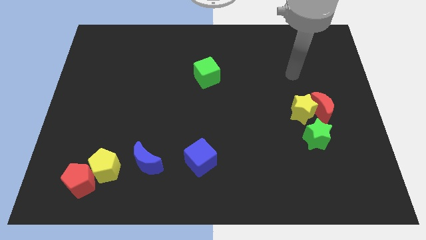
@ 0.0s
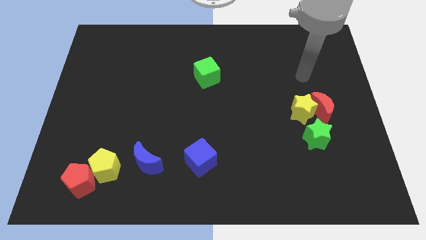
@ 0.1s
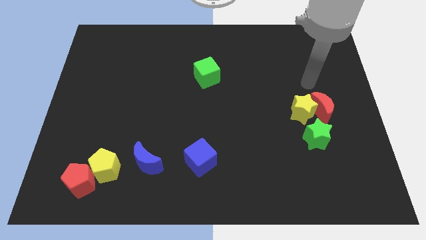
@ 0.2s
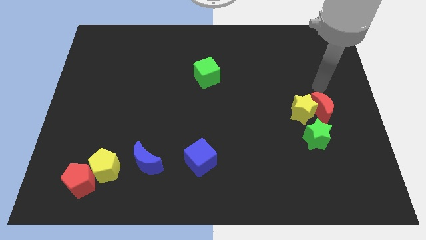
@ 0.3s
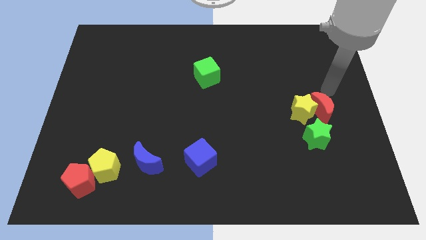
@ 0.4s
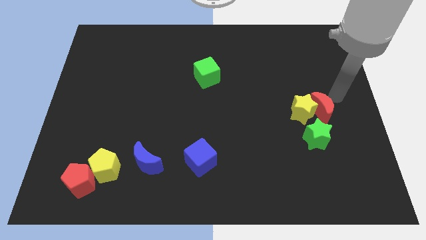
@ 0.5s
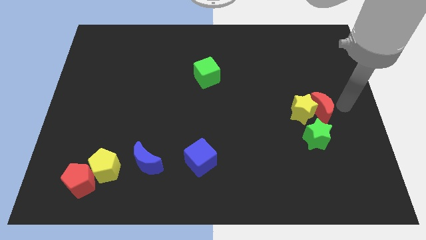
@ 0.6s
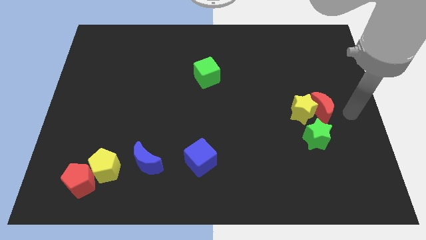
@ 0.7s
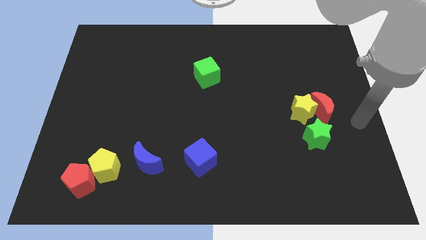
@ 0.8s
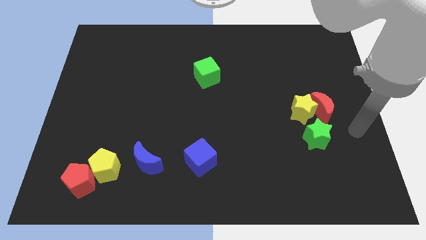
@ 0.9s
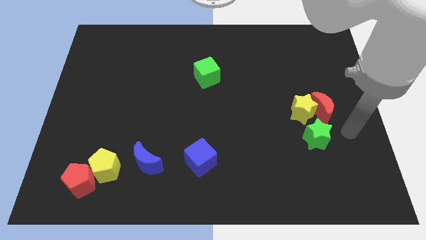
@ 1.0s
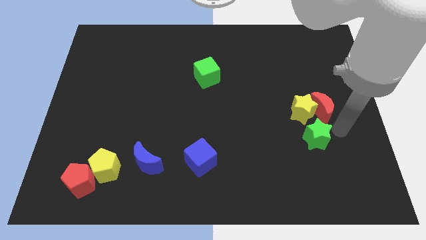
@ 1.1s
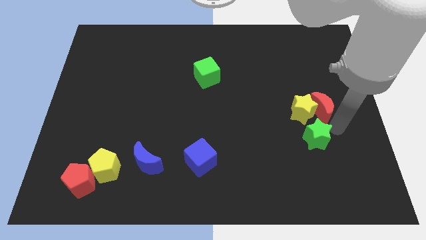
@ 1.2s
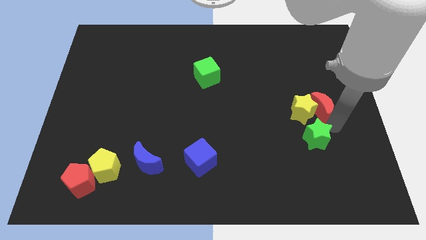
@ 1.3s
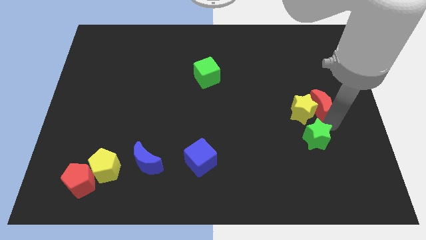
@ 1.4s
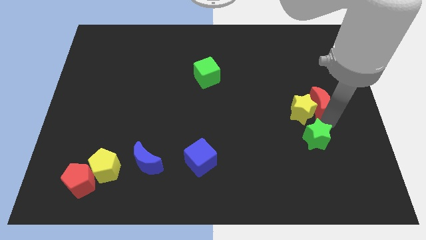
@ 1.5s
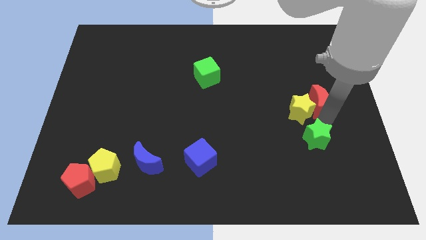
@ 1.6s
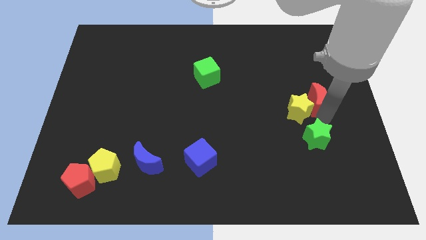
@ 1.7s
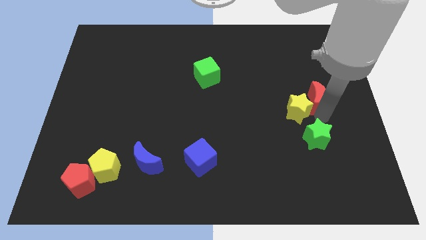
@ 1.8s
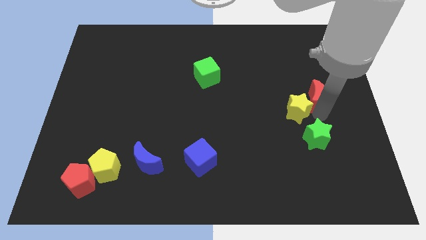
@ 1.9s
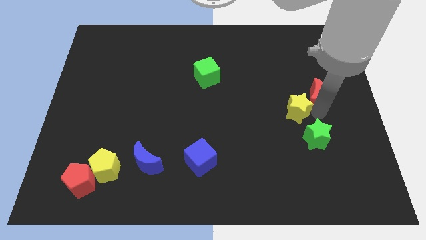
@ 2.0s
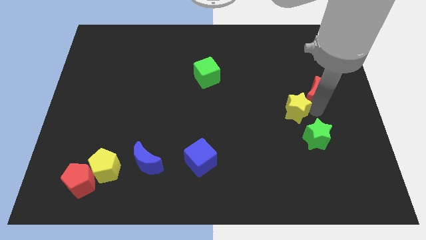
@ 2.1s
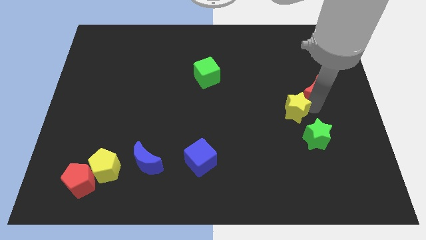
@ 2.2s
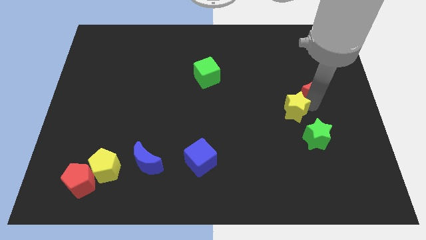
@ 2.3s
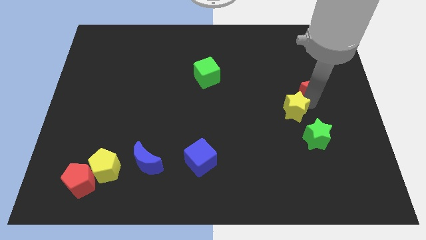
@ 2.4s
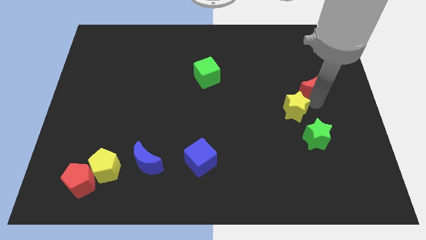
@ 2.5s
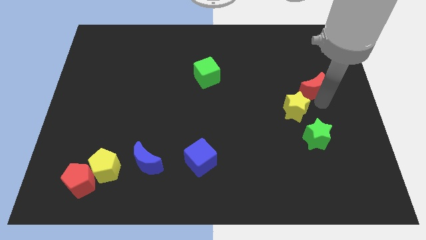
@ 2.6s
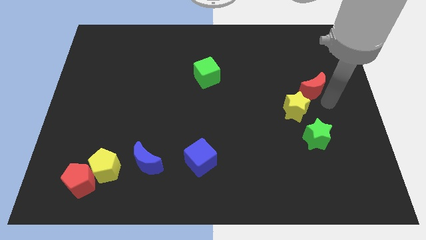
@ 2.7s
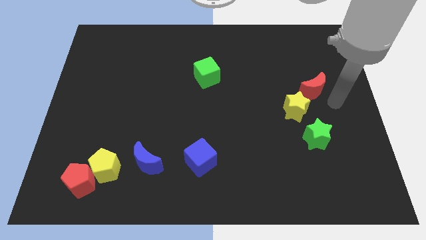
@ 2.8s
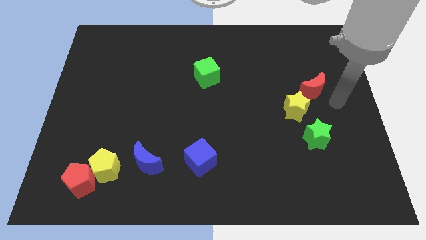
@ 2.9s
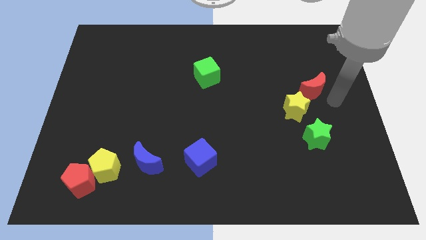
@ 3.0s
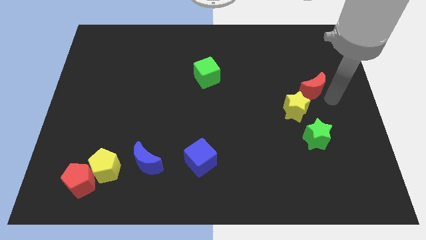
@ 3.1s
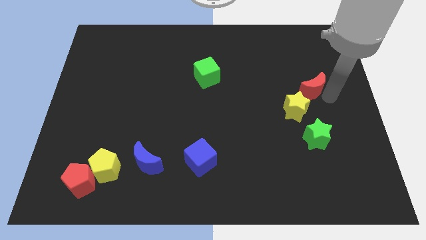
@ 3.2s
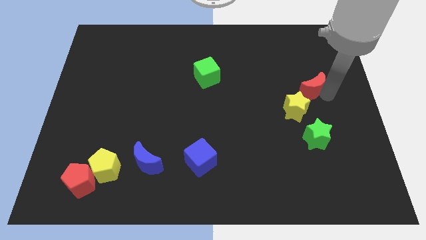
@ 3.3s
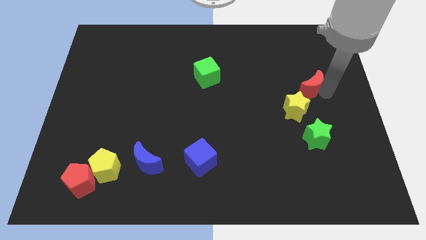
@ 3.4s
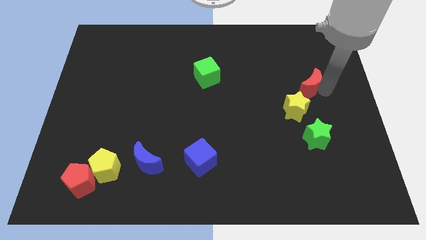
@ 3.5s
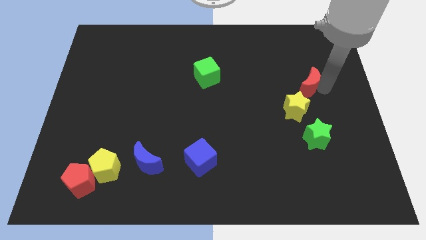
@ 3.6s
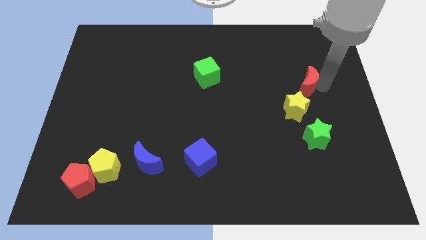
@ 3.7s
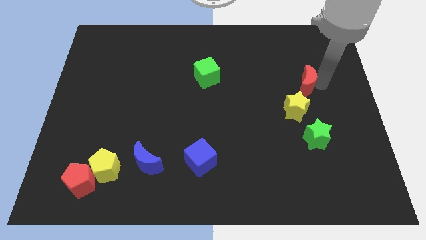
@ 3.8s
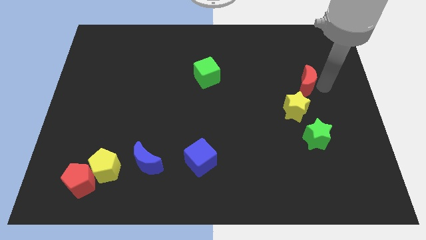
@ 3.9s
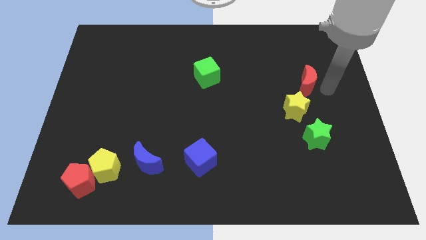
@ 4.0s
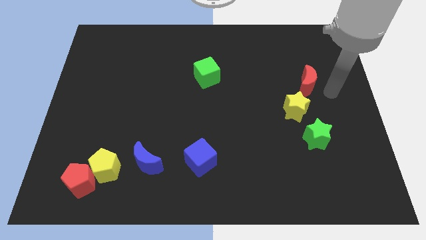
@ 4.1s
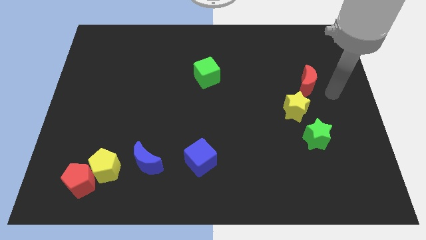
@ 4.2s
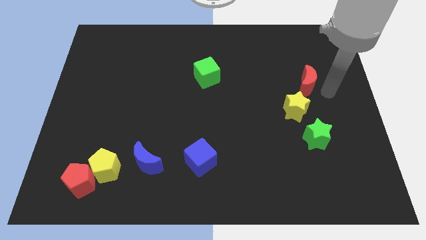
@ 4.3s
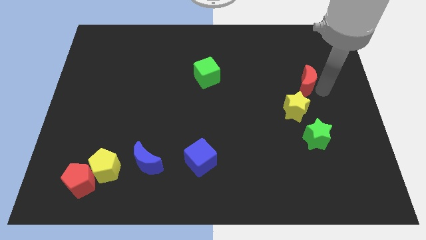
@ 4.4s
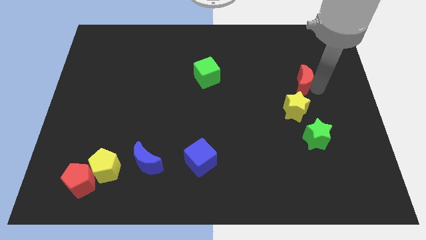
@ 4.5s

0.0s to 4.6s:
slide the red moon a little bit upwards and then left

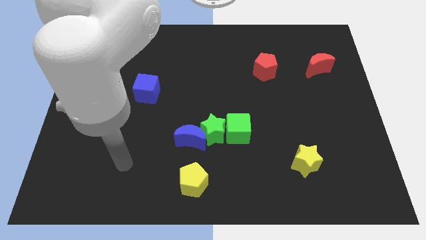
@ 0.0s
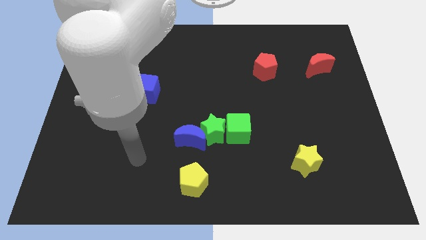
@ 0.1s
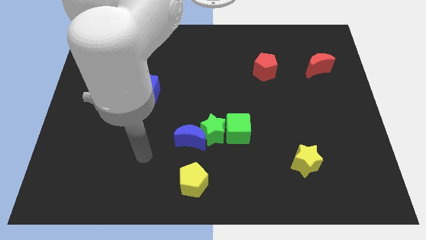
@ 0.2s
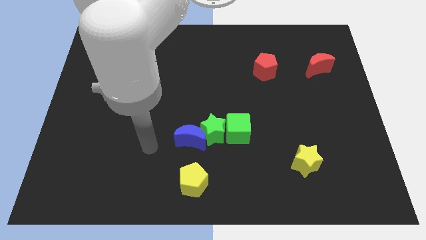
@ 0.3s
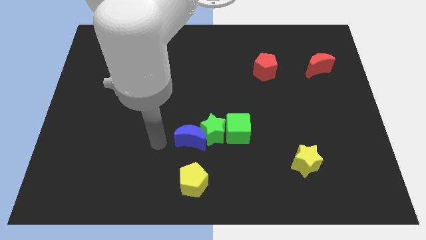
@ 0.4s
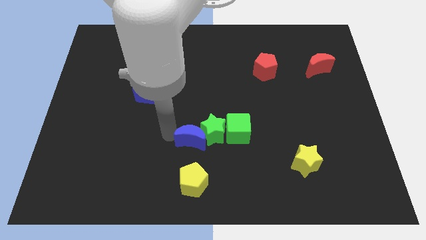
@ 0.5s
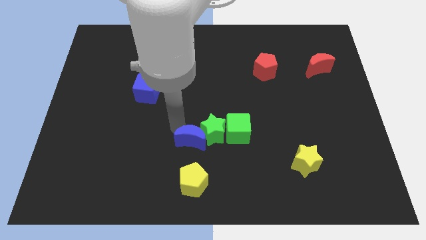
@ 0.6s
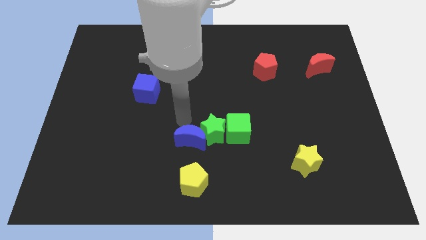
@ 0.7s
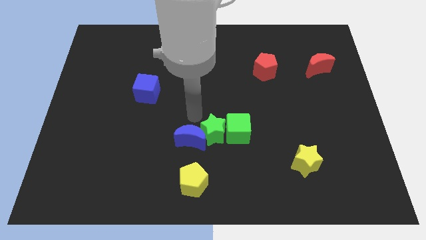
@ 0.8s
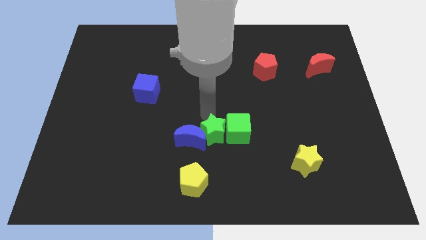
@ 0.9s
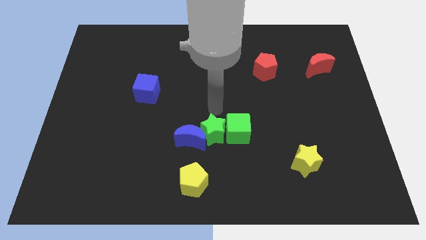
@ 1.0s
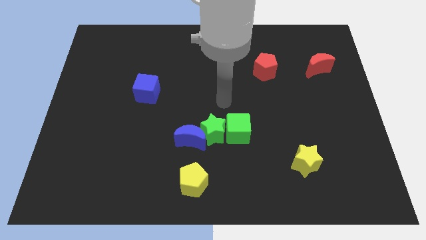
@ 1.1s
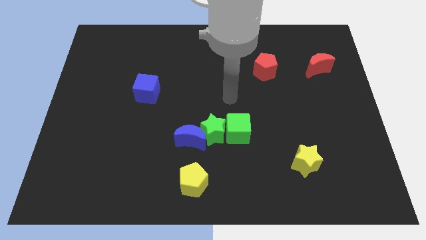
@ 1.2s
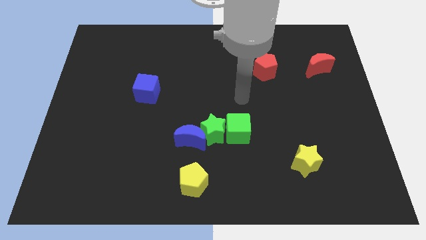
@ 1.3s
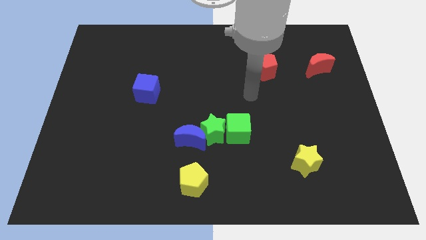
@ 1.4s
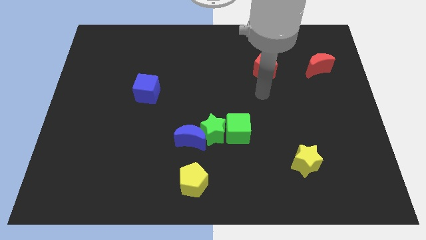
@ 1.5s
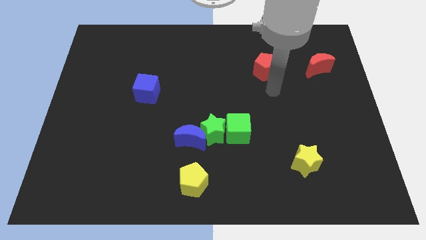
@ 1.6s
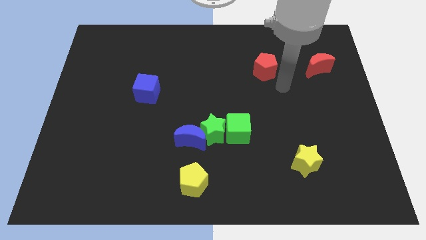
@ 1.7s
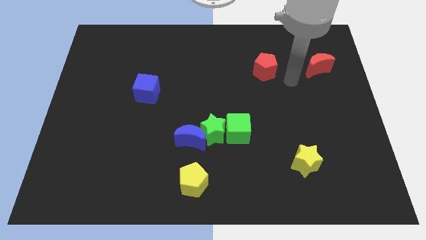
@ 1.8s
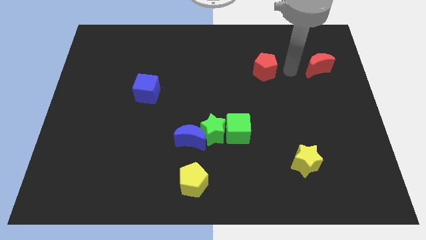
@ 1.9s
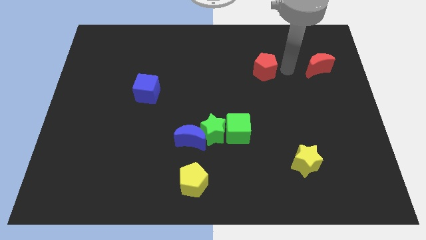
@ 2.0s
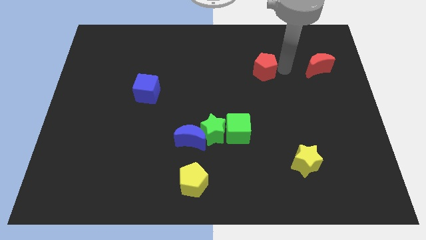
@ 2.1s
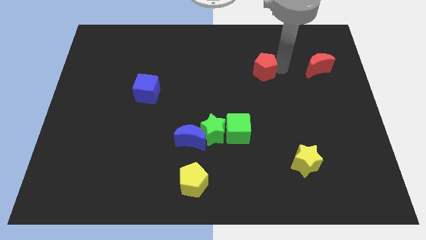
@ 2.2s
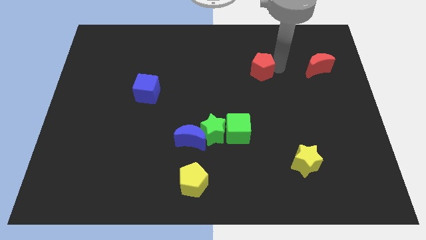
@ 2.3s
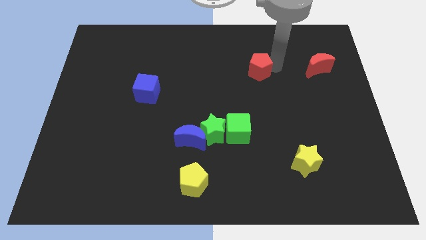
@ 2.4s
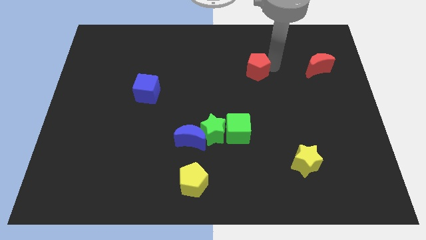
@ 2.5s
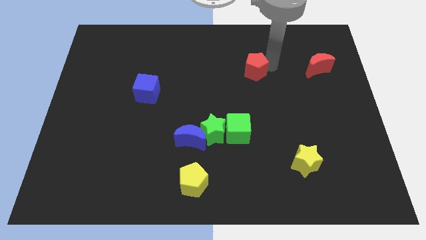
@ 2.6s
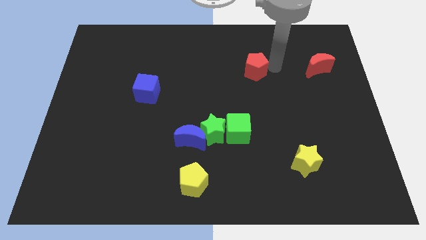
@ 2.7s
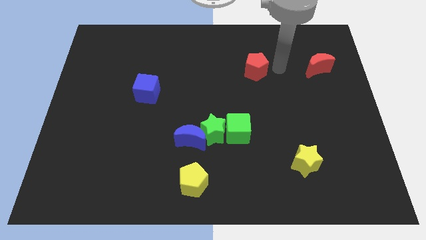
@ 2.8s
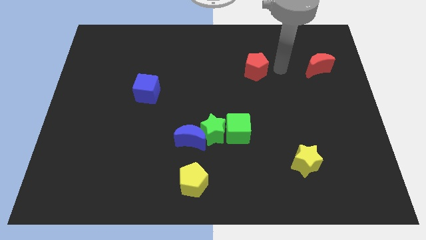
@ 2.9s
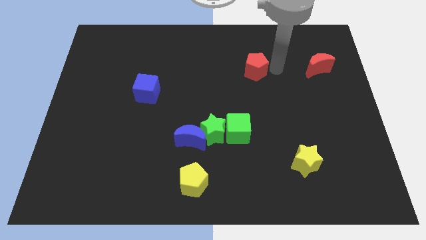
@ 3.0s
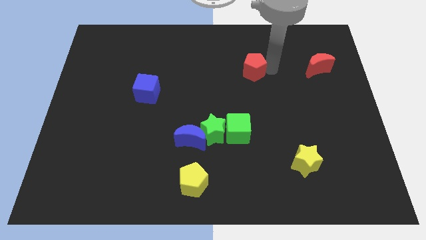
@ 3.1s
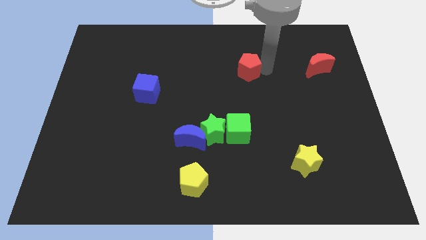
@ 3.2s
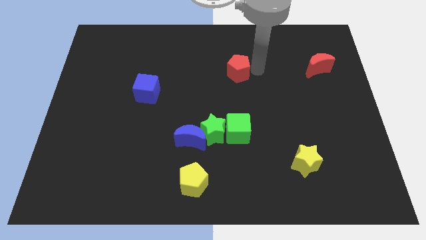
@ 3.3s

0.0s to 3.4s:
slide the red pentagon a bit to the left
